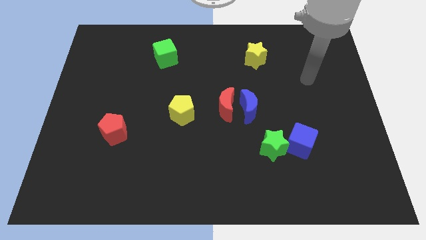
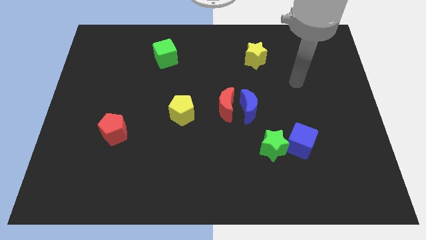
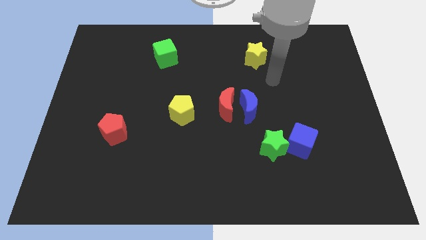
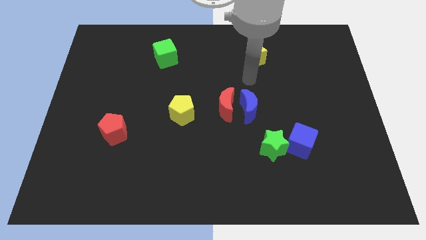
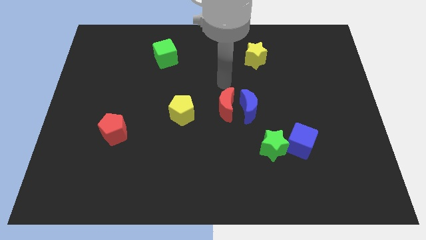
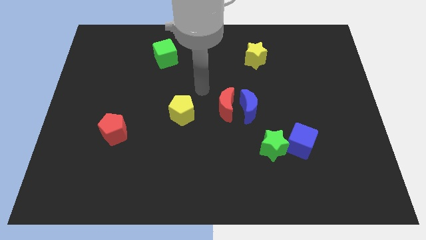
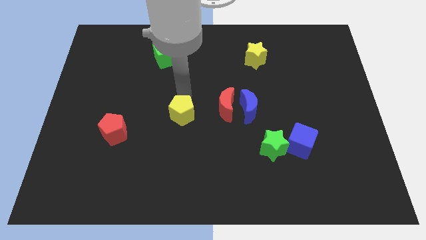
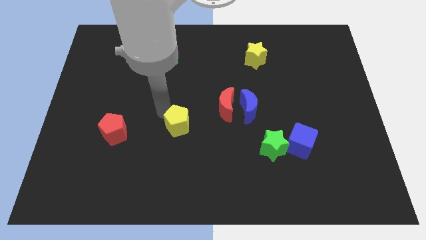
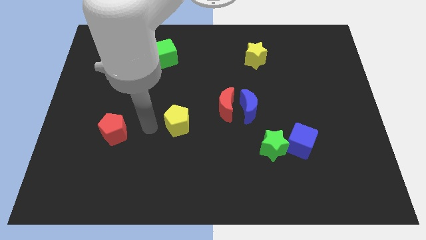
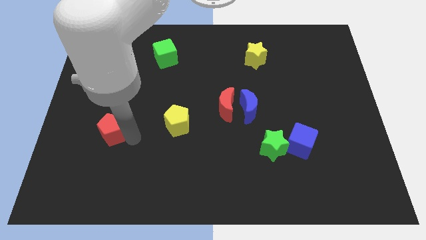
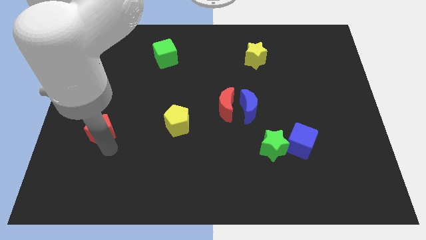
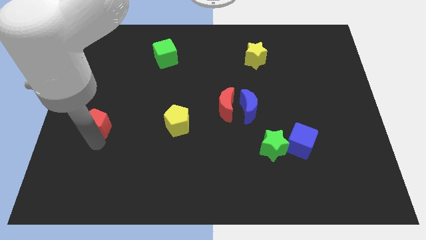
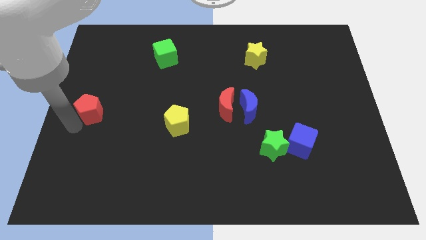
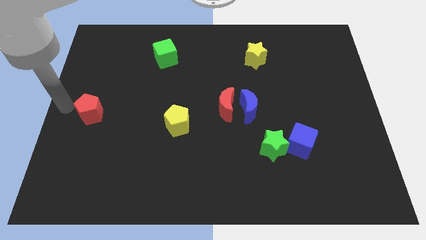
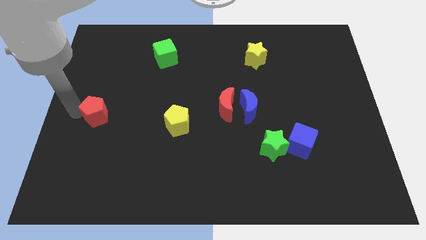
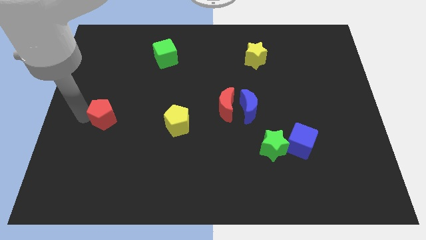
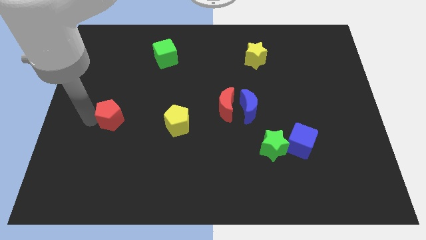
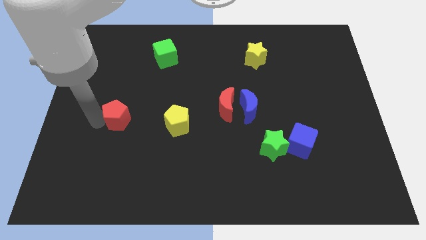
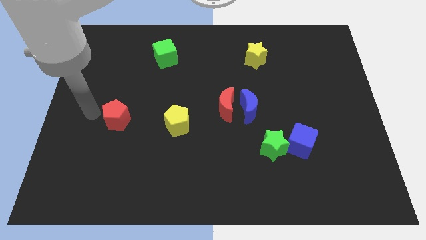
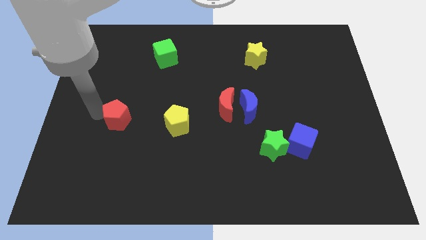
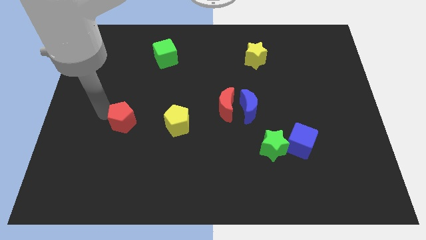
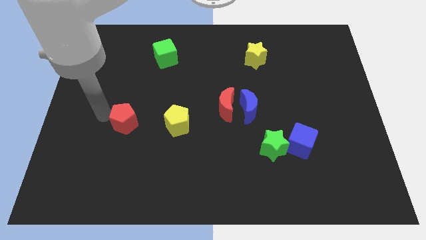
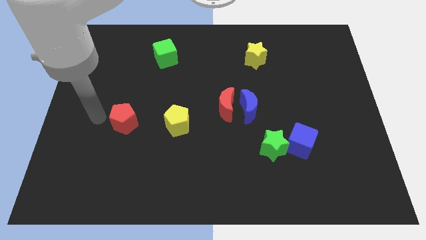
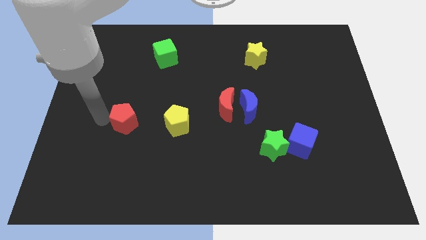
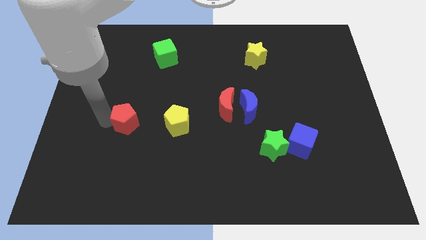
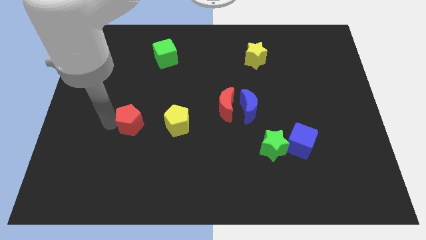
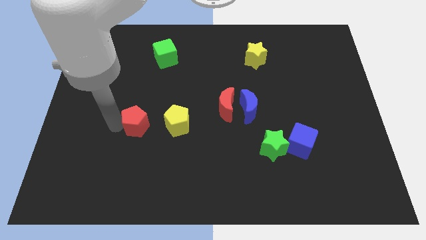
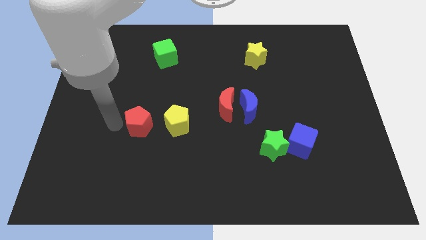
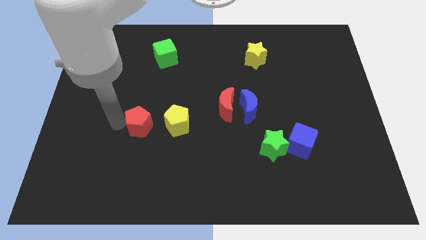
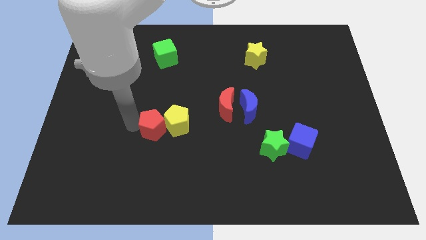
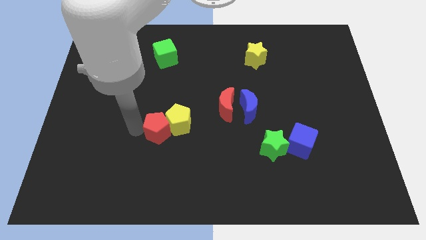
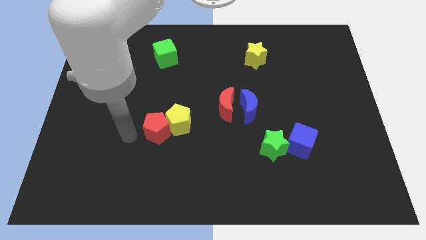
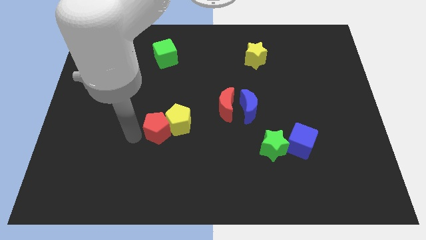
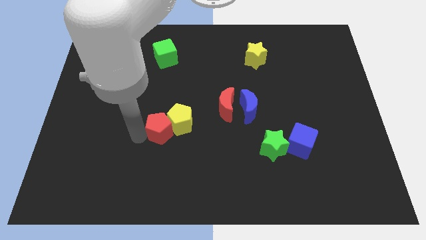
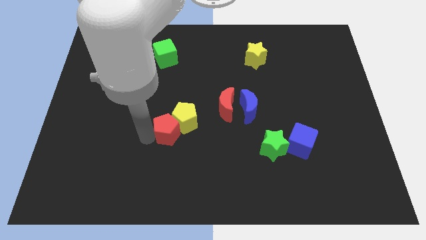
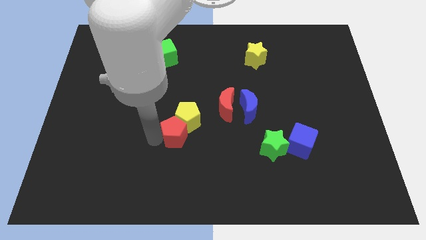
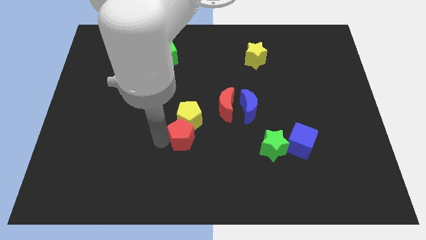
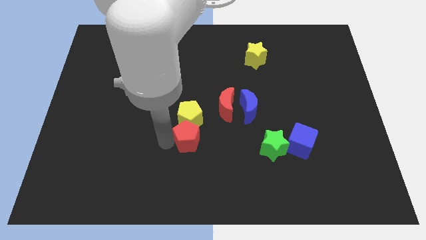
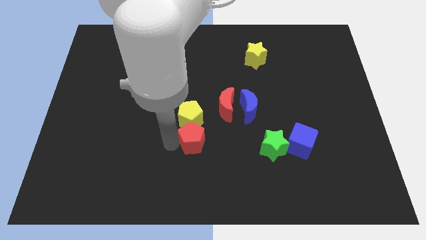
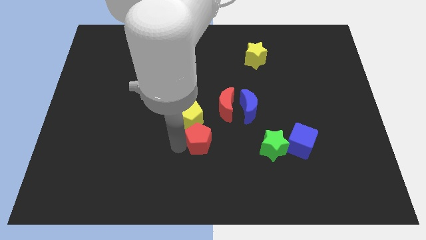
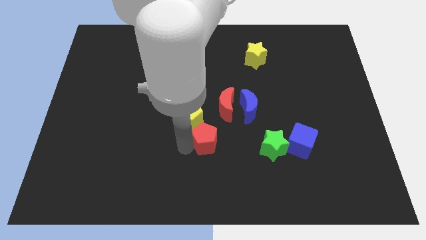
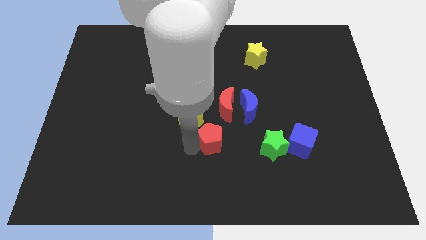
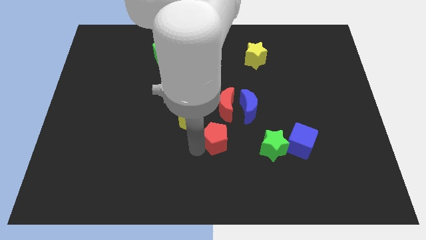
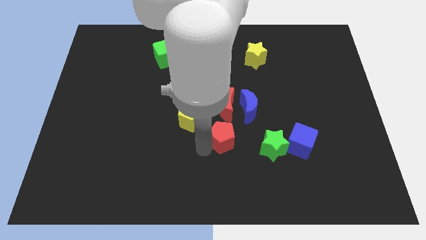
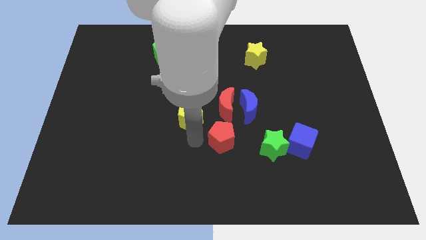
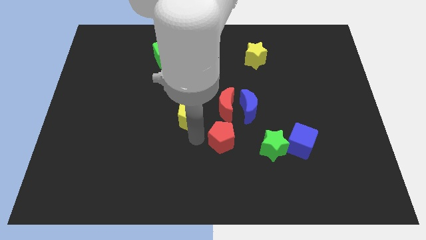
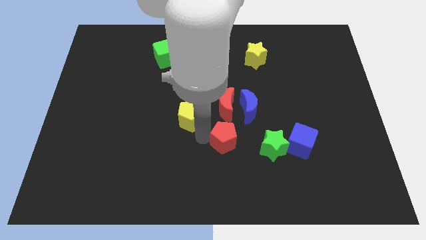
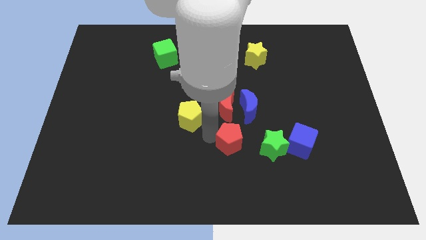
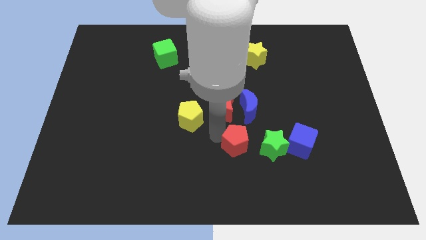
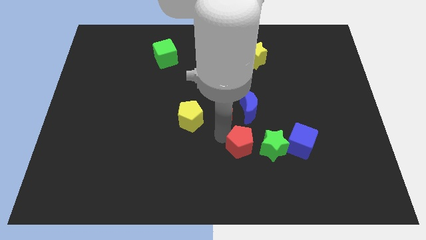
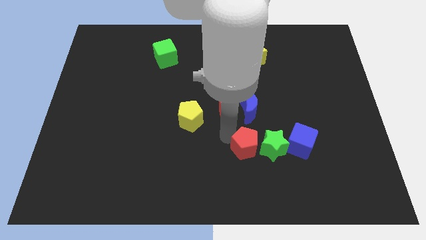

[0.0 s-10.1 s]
move the red pentagon to the green star

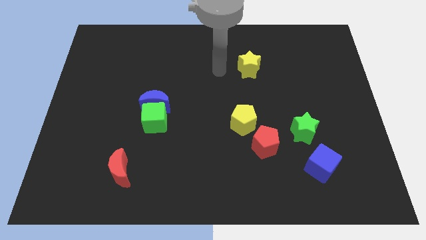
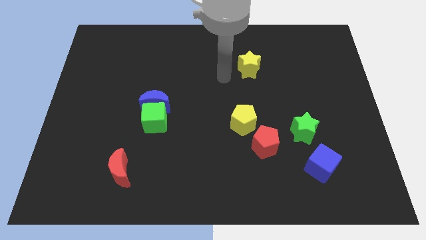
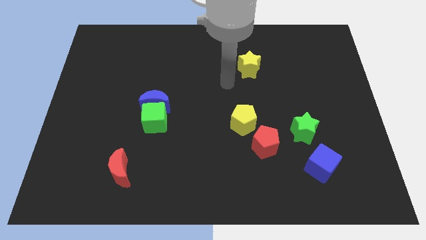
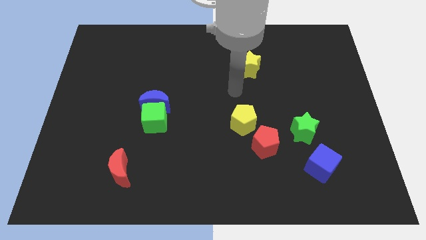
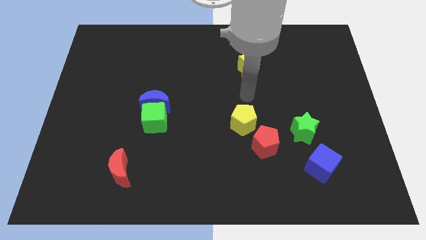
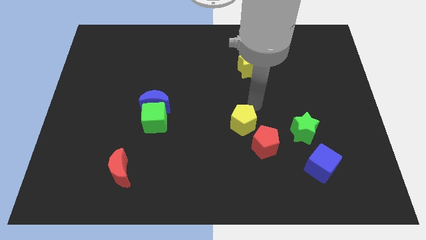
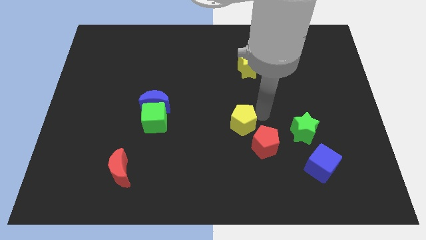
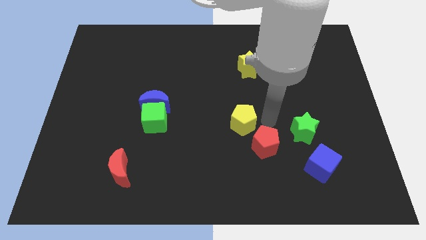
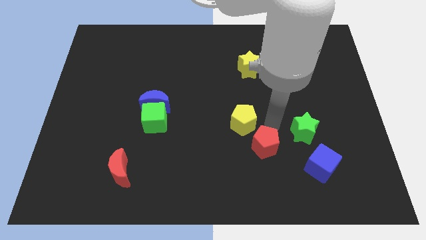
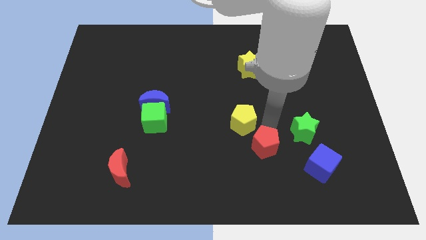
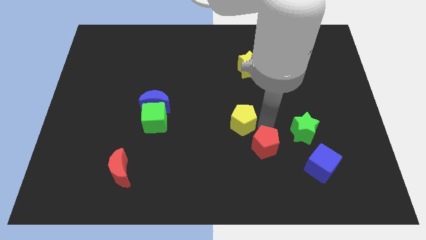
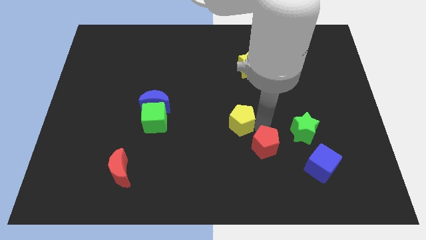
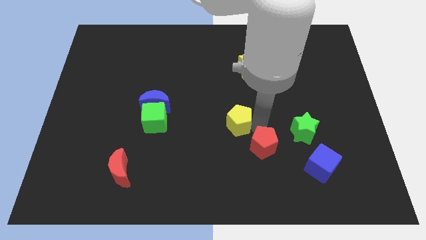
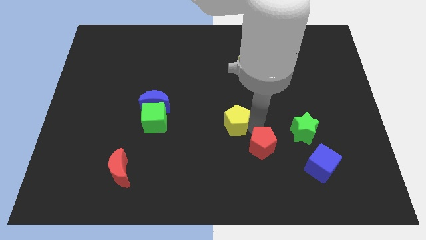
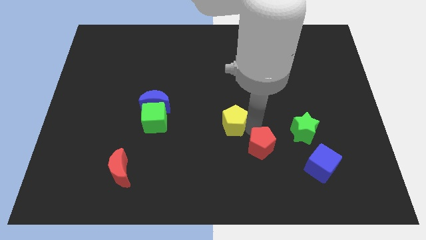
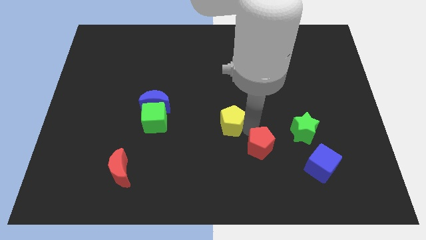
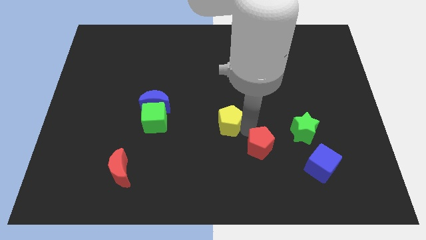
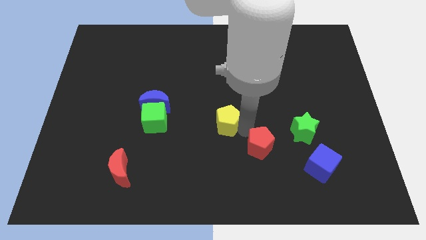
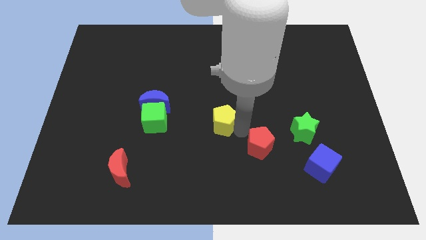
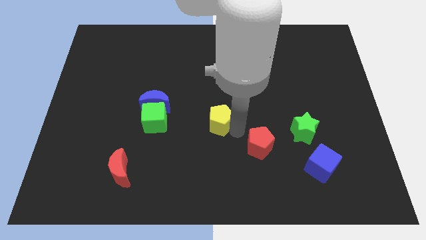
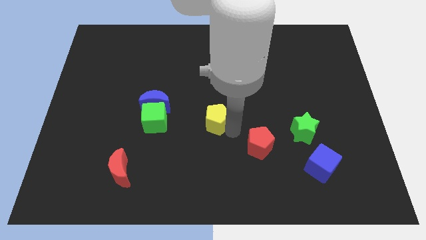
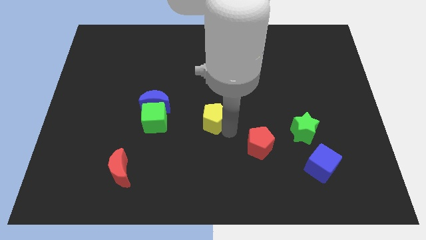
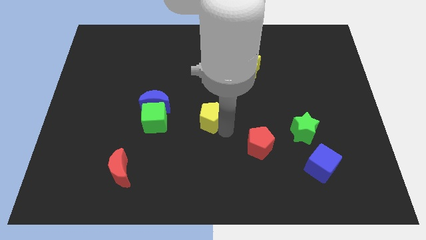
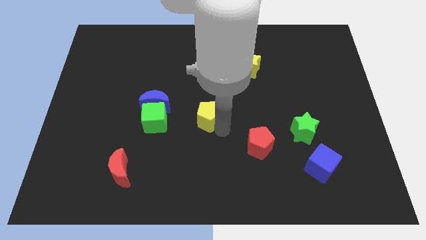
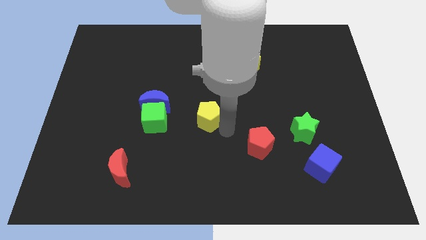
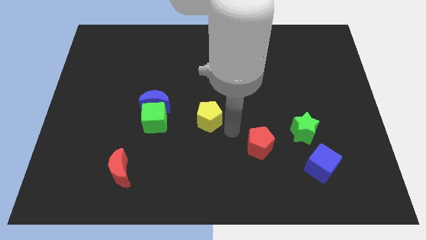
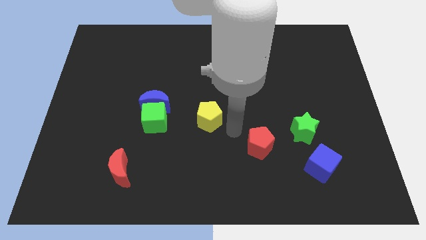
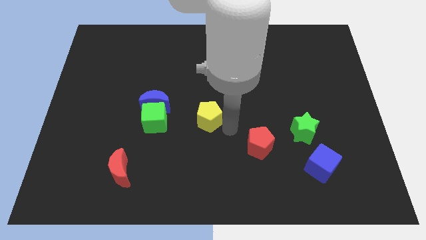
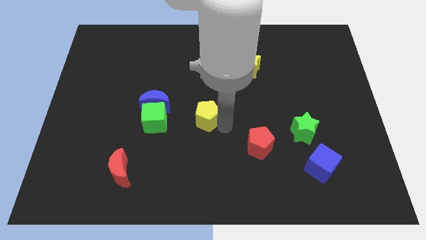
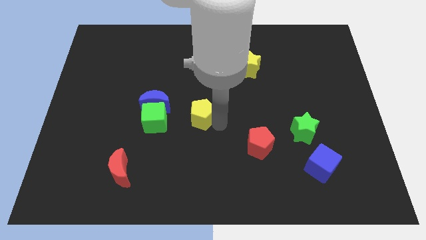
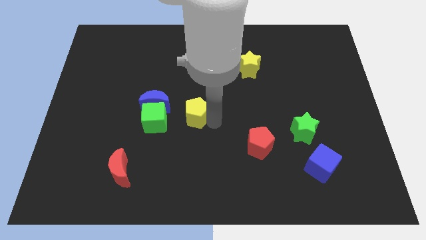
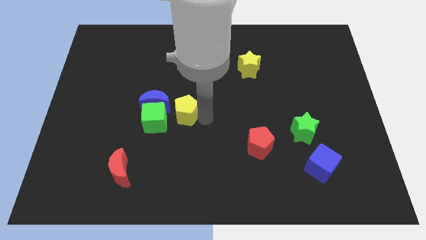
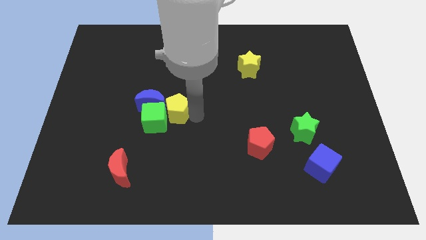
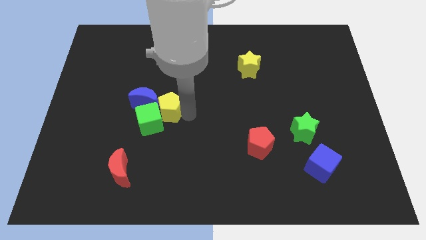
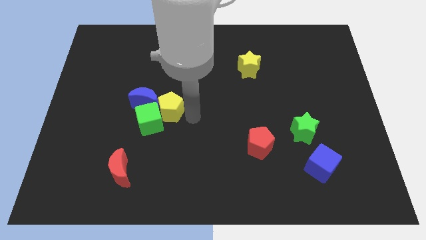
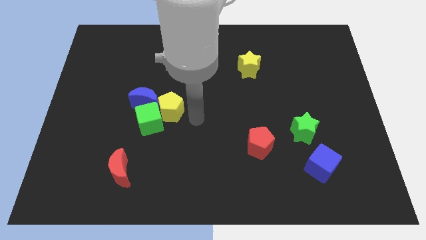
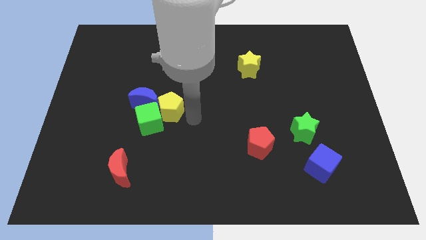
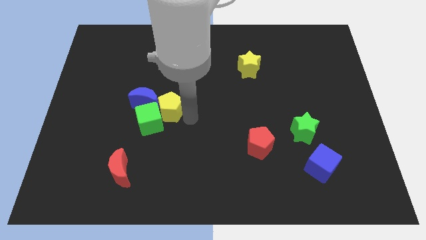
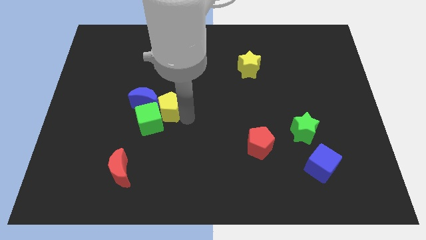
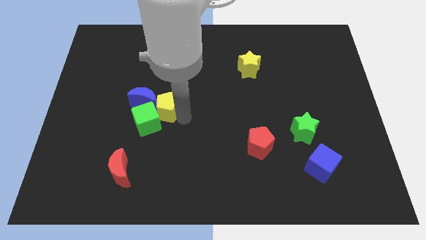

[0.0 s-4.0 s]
move the yellow pentagon close to the blue moon
